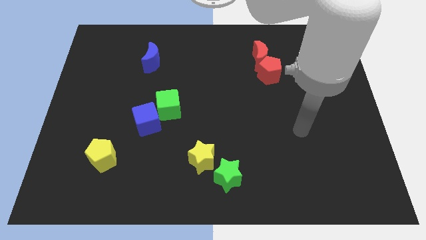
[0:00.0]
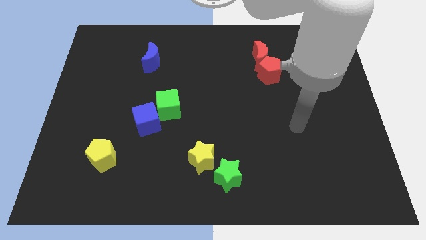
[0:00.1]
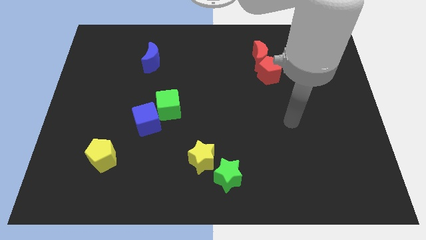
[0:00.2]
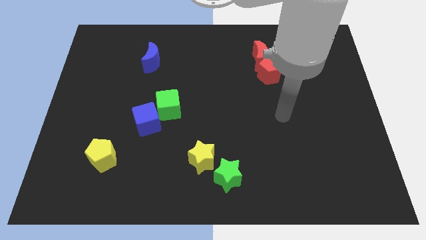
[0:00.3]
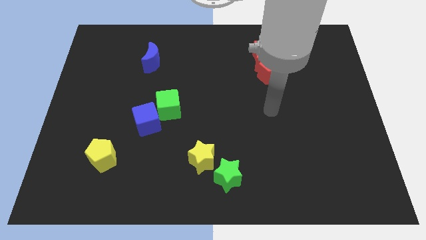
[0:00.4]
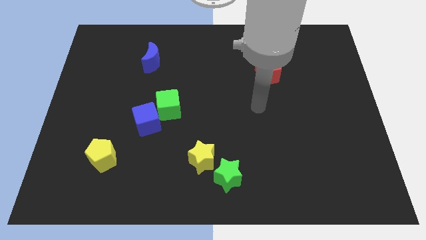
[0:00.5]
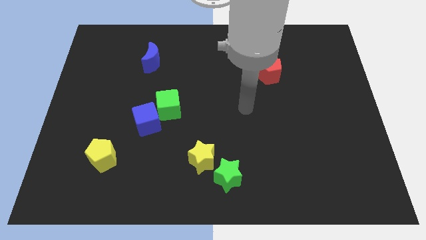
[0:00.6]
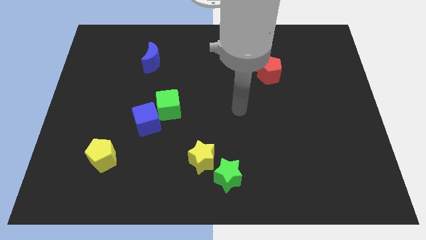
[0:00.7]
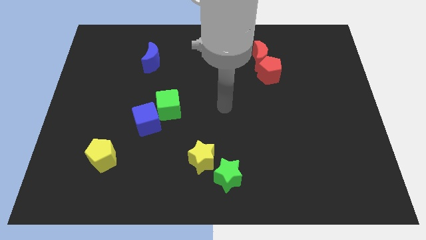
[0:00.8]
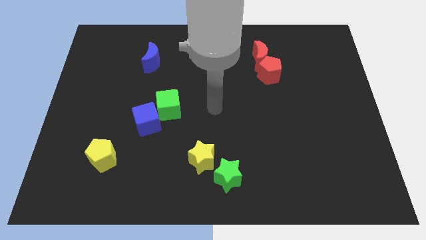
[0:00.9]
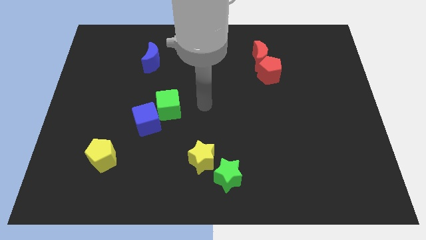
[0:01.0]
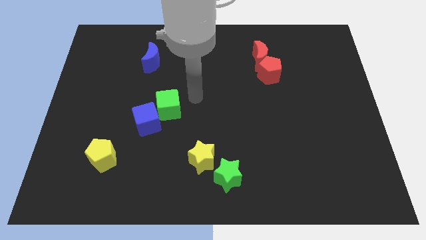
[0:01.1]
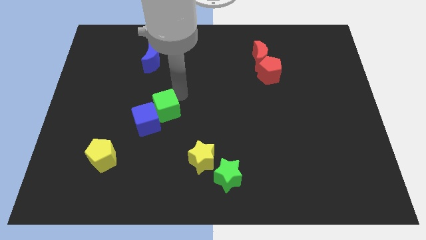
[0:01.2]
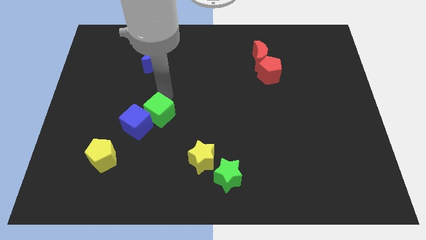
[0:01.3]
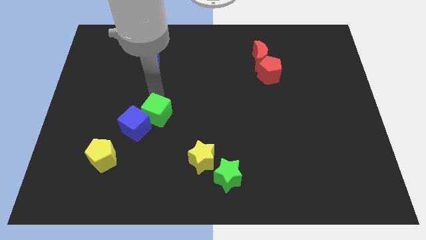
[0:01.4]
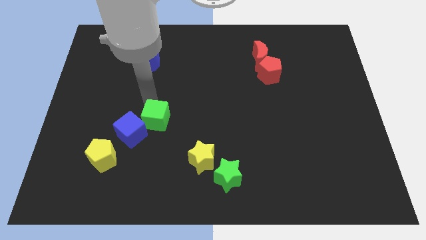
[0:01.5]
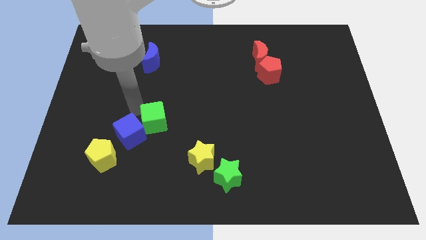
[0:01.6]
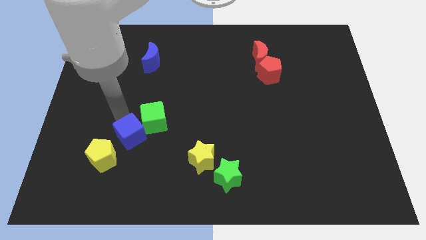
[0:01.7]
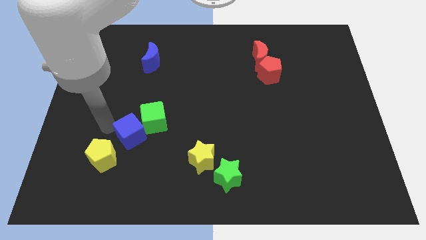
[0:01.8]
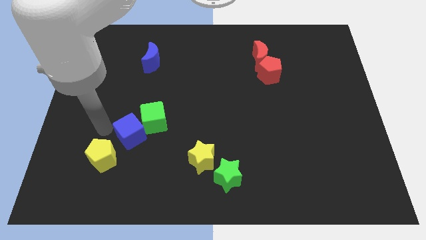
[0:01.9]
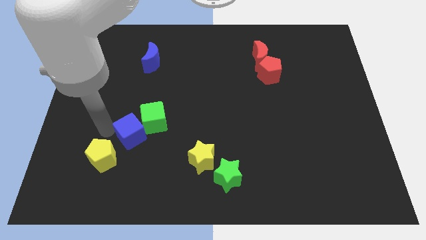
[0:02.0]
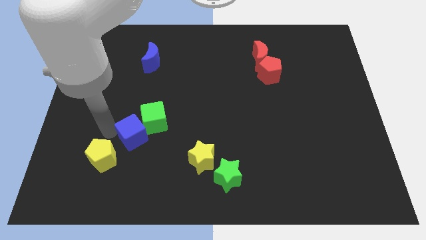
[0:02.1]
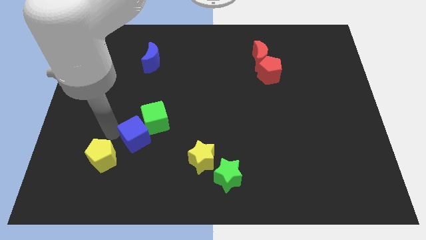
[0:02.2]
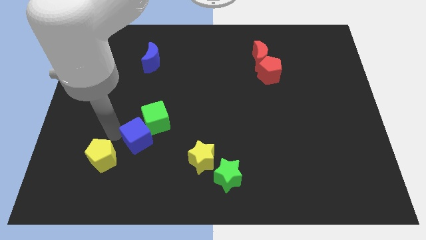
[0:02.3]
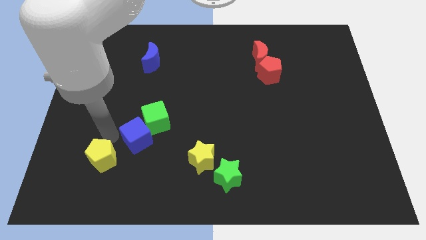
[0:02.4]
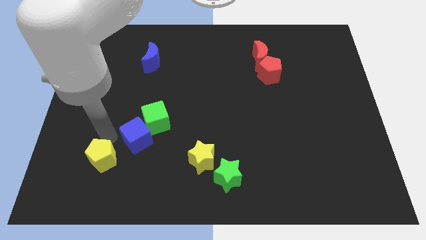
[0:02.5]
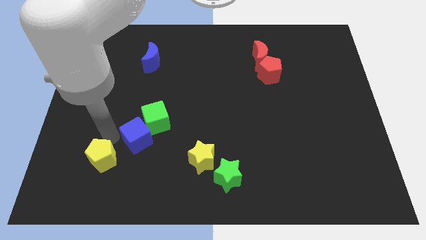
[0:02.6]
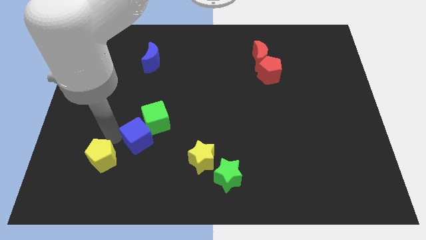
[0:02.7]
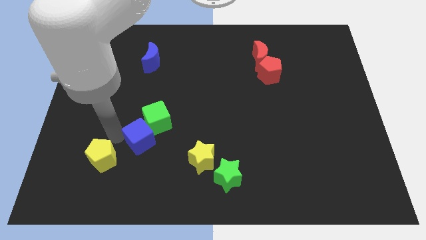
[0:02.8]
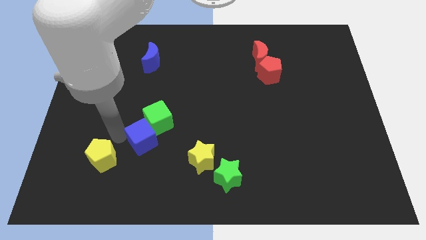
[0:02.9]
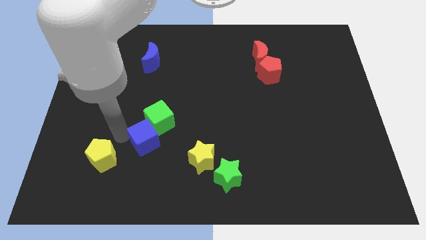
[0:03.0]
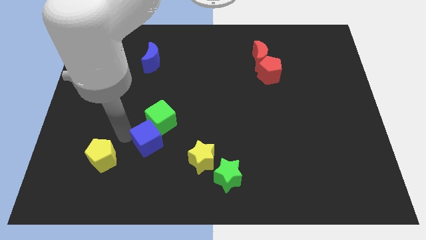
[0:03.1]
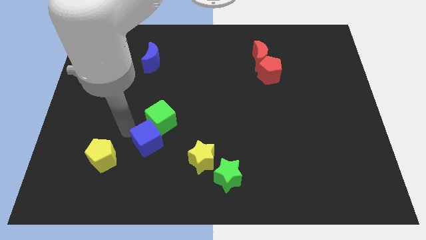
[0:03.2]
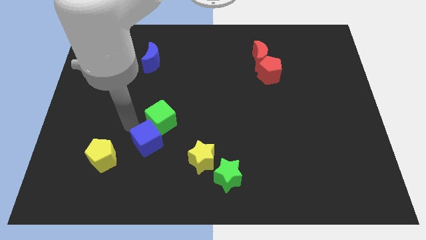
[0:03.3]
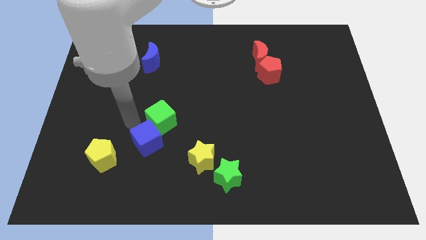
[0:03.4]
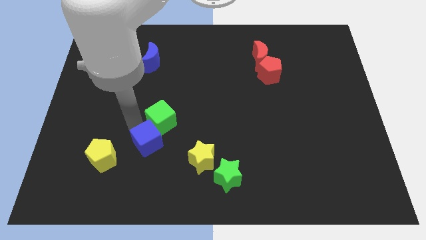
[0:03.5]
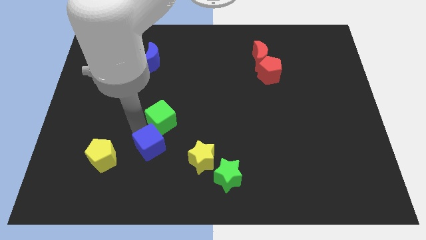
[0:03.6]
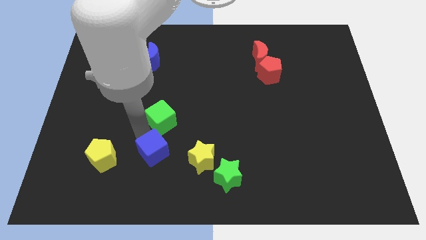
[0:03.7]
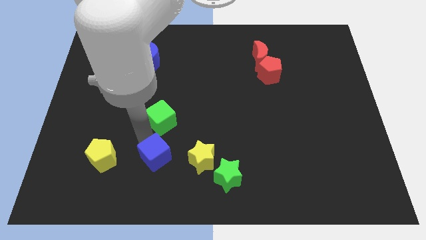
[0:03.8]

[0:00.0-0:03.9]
slightly slide the blue cube downwards and then to the right

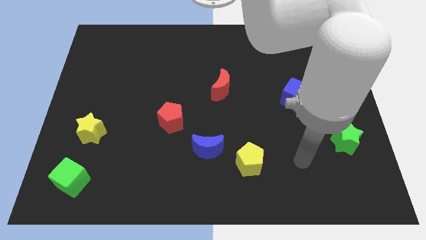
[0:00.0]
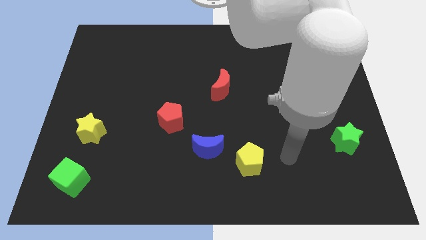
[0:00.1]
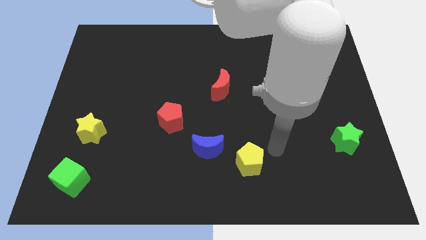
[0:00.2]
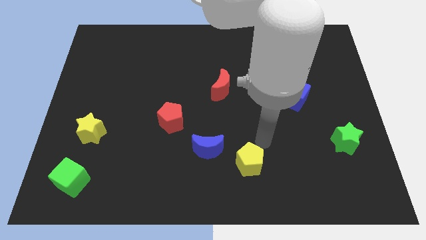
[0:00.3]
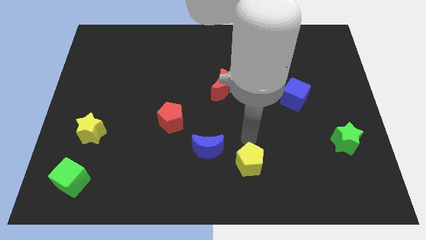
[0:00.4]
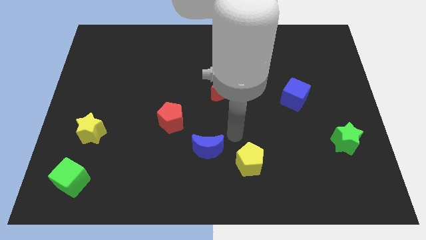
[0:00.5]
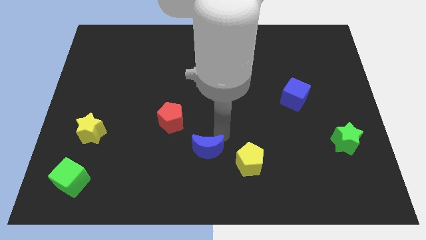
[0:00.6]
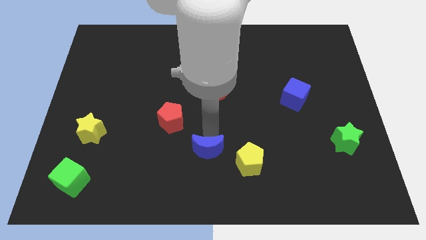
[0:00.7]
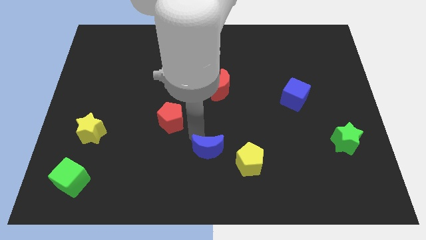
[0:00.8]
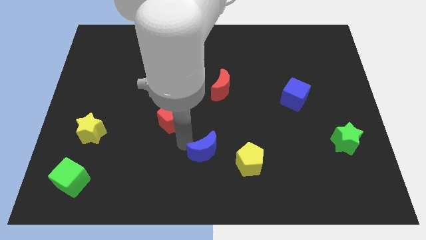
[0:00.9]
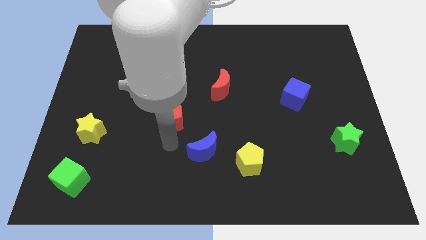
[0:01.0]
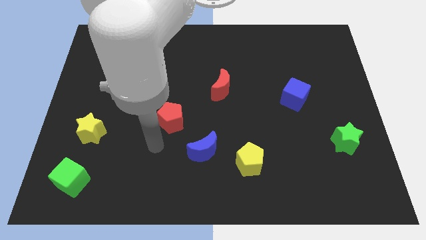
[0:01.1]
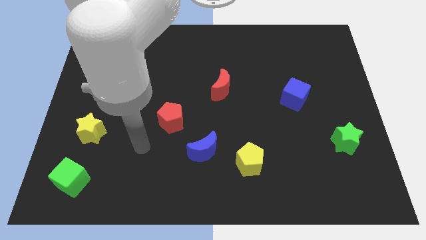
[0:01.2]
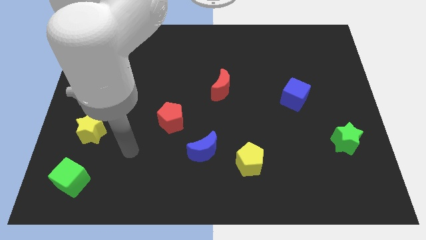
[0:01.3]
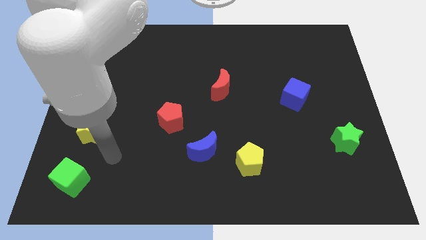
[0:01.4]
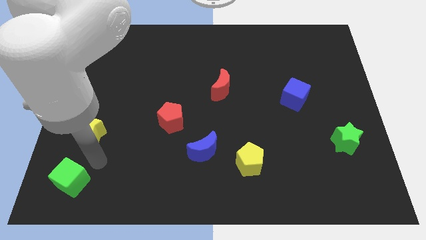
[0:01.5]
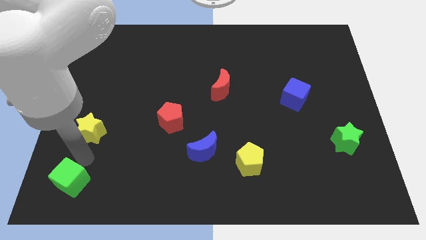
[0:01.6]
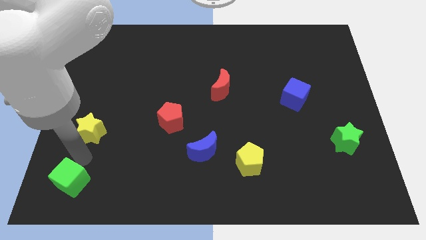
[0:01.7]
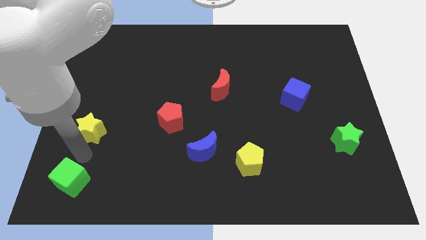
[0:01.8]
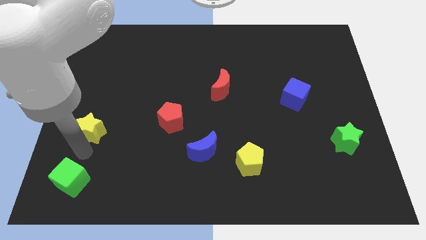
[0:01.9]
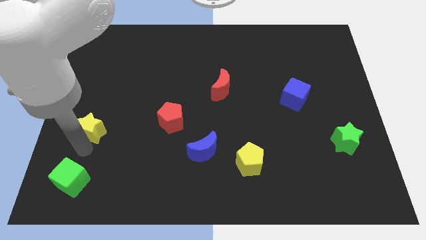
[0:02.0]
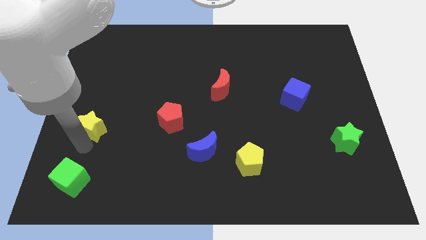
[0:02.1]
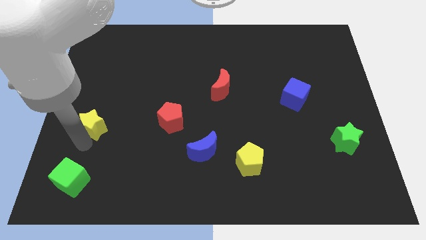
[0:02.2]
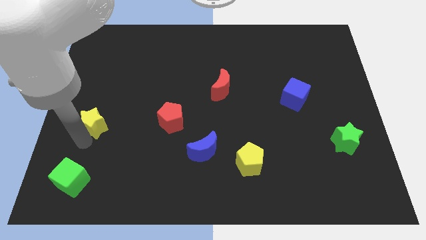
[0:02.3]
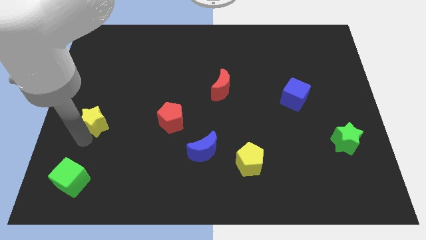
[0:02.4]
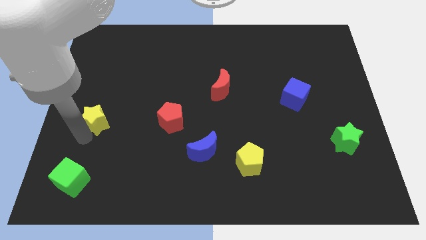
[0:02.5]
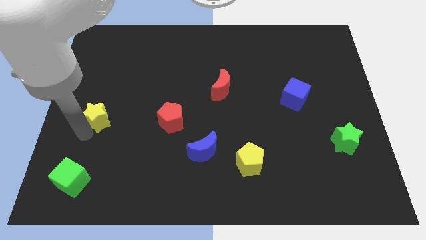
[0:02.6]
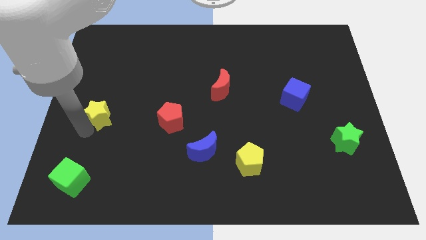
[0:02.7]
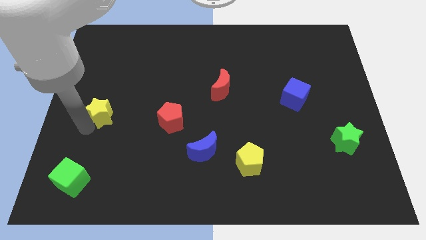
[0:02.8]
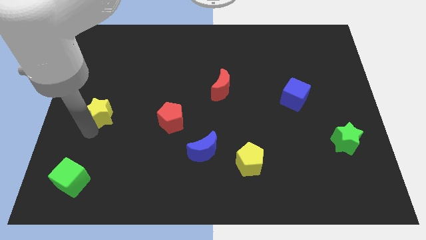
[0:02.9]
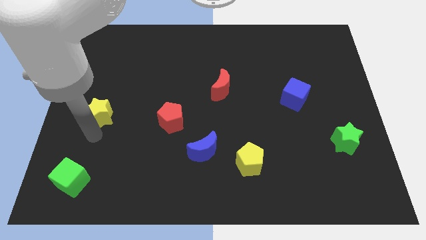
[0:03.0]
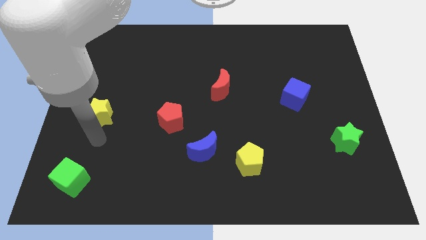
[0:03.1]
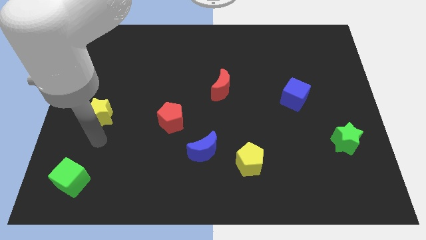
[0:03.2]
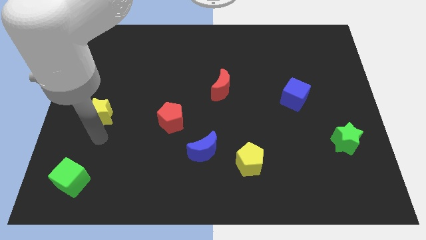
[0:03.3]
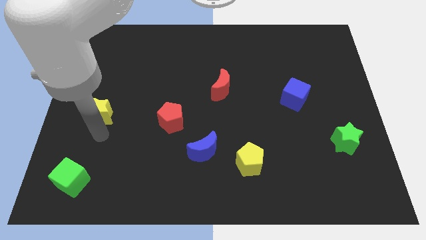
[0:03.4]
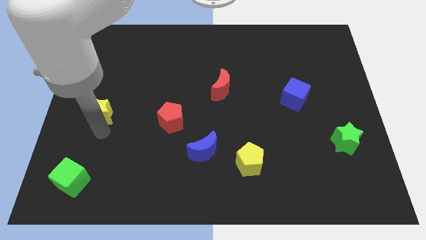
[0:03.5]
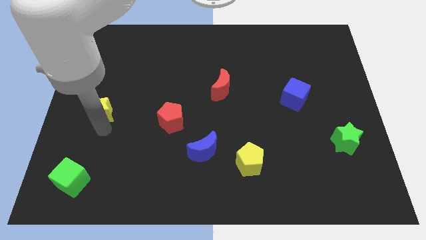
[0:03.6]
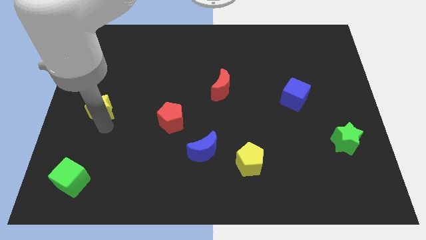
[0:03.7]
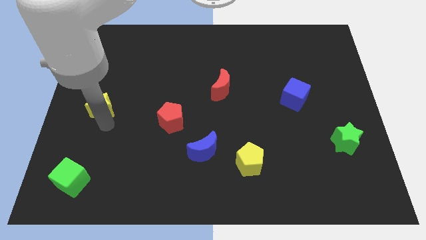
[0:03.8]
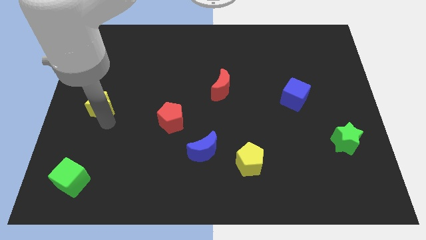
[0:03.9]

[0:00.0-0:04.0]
slightly push the yellow star upwards

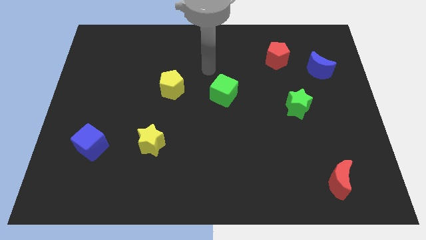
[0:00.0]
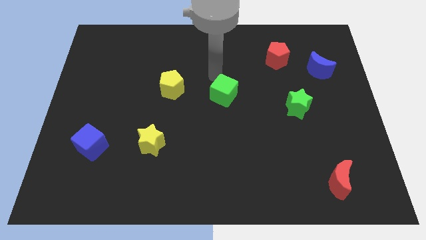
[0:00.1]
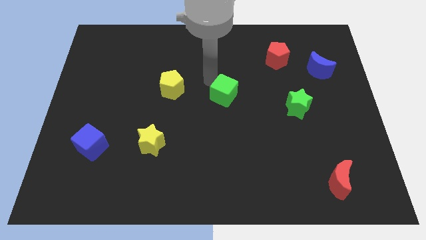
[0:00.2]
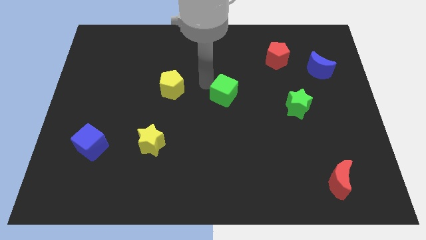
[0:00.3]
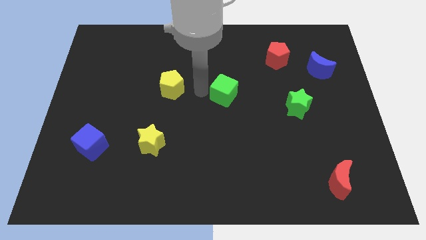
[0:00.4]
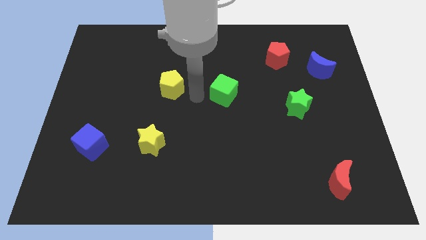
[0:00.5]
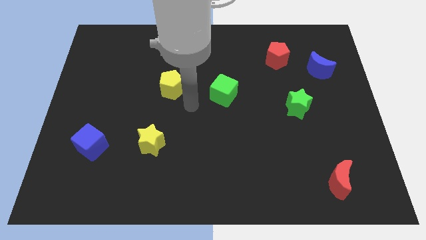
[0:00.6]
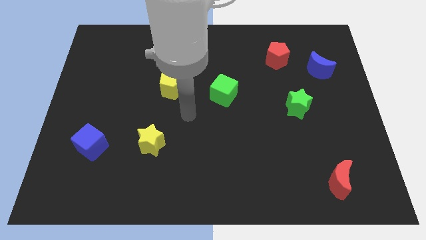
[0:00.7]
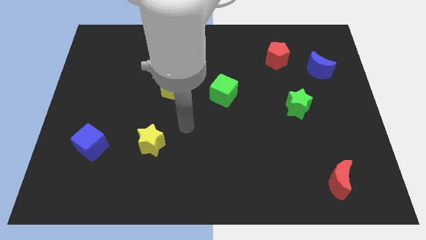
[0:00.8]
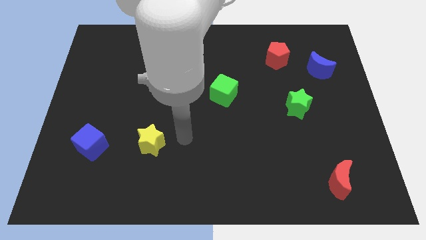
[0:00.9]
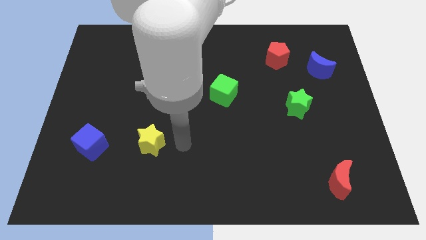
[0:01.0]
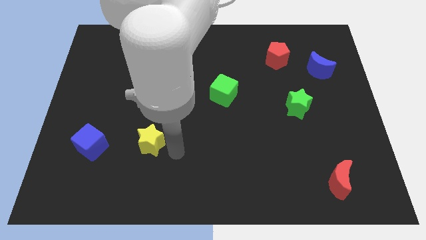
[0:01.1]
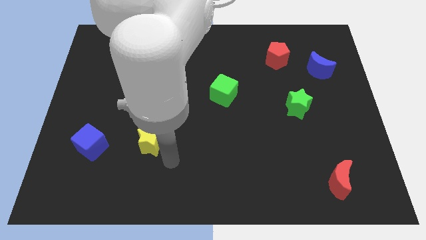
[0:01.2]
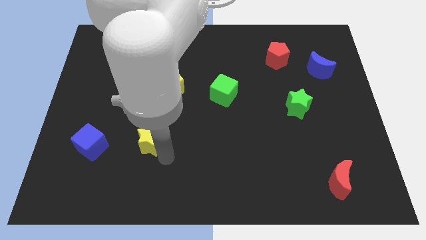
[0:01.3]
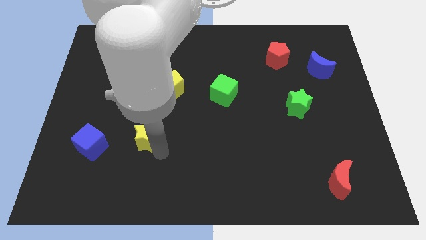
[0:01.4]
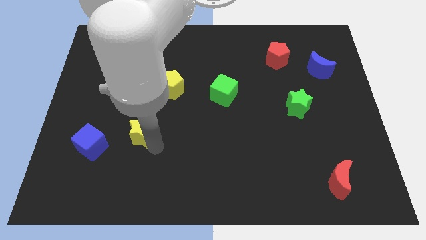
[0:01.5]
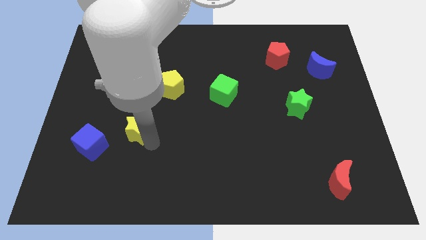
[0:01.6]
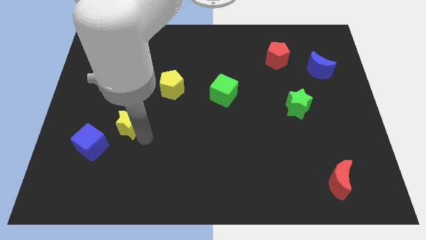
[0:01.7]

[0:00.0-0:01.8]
slightly push the yellow star upwards and then left
